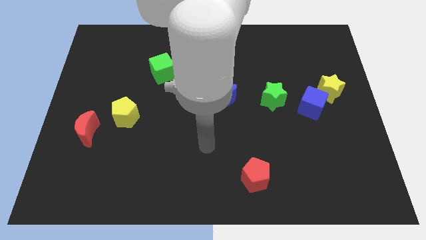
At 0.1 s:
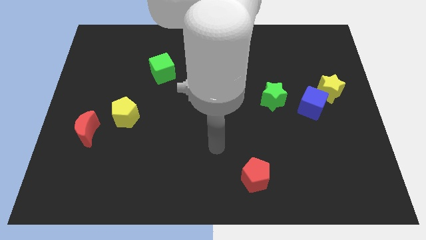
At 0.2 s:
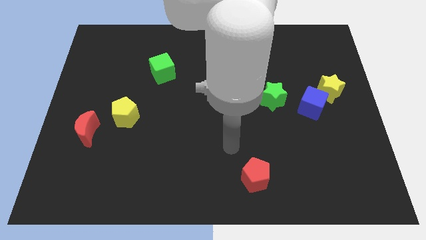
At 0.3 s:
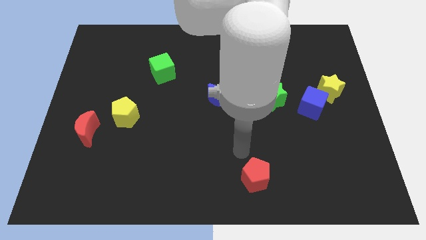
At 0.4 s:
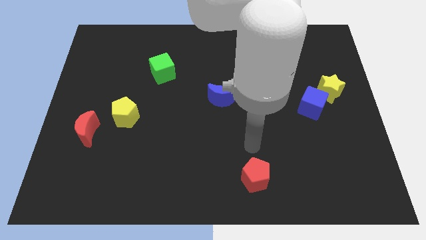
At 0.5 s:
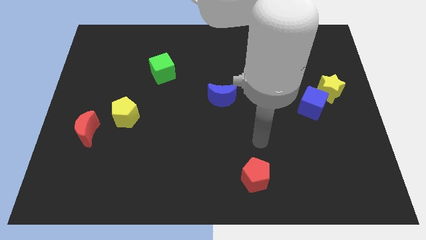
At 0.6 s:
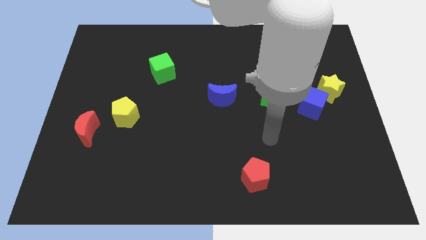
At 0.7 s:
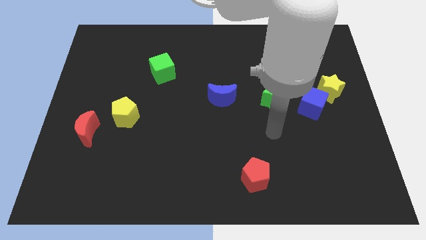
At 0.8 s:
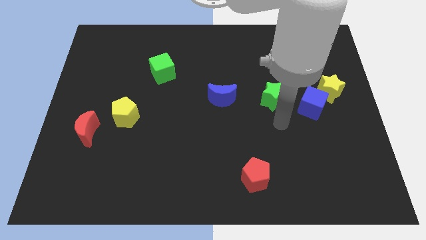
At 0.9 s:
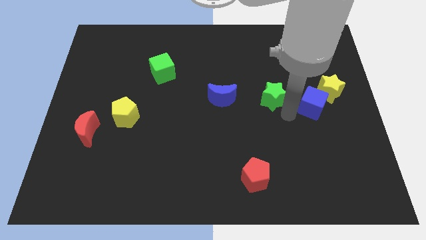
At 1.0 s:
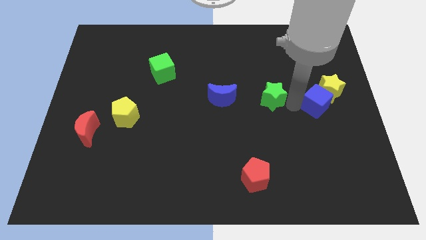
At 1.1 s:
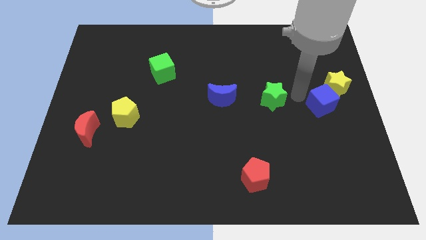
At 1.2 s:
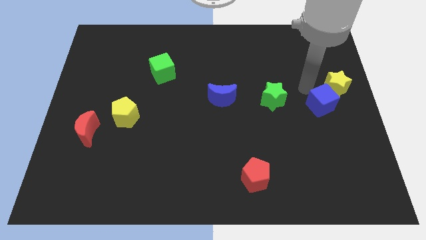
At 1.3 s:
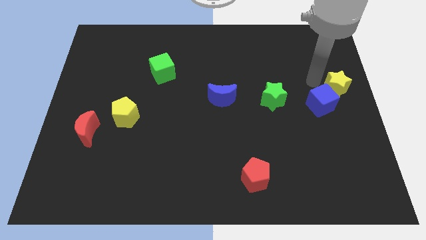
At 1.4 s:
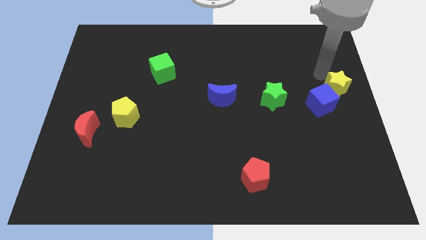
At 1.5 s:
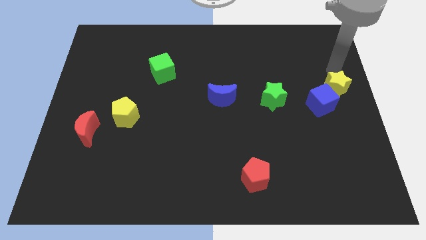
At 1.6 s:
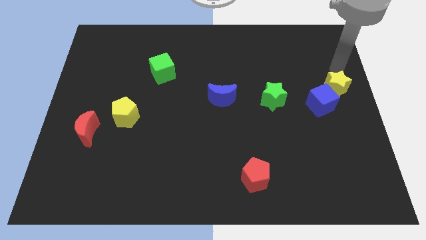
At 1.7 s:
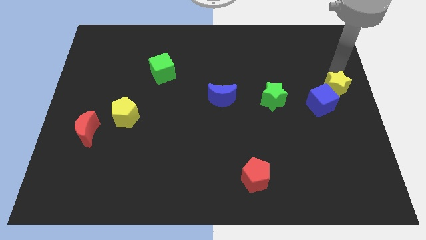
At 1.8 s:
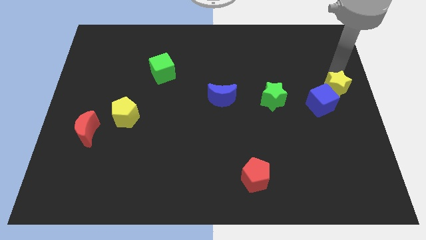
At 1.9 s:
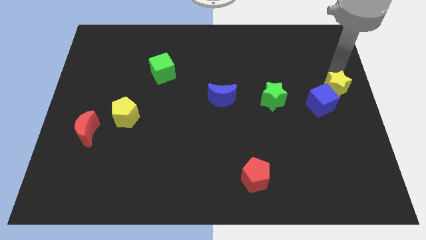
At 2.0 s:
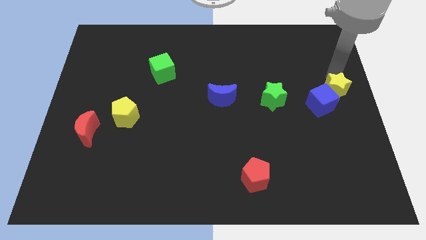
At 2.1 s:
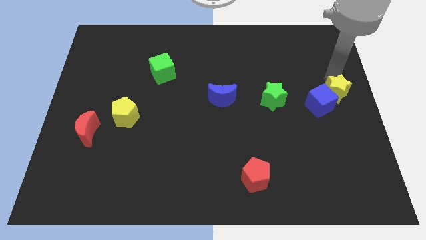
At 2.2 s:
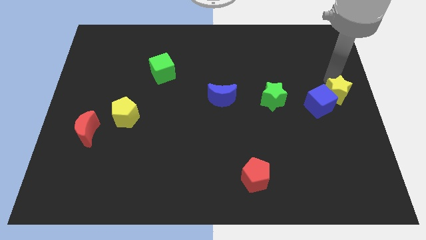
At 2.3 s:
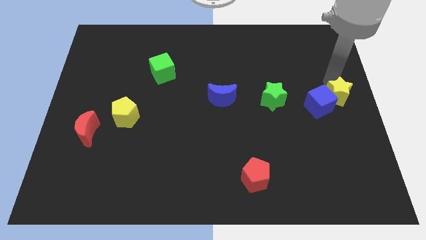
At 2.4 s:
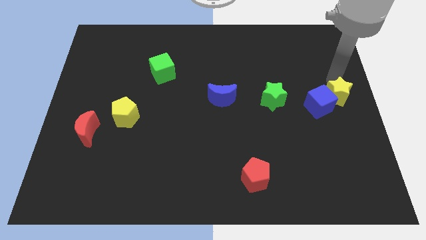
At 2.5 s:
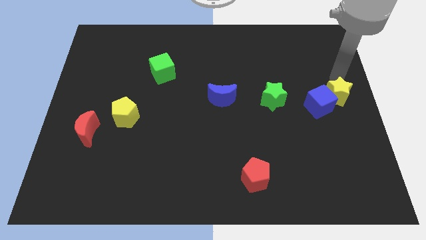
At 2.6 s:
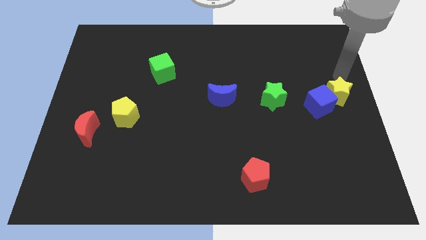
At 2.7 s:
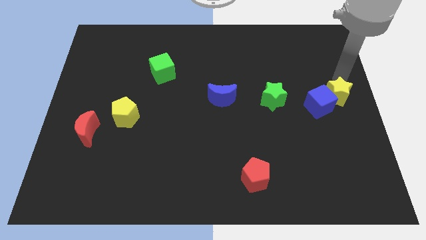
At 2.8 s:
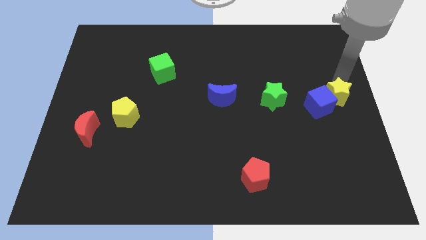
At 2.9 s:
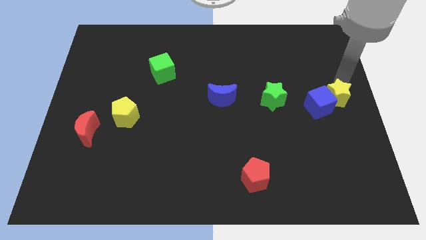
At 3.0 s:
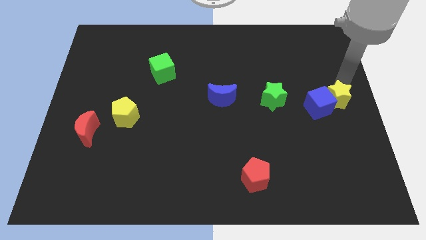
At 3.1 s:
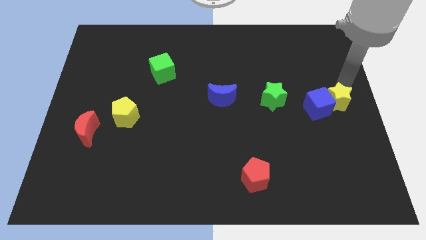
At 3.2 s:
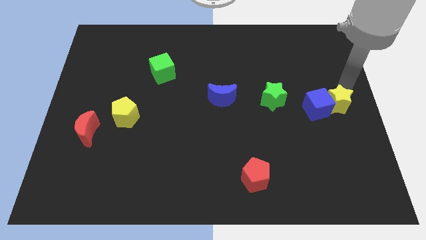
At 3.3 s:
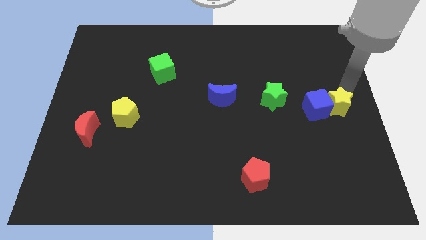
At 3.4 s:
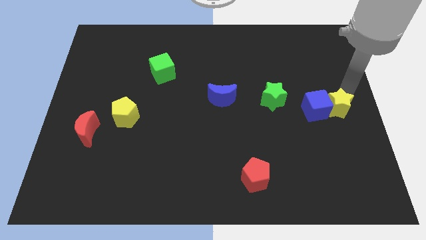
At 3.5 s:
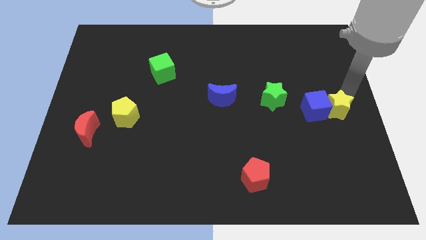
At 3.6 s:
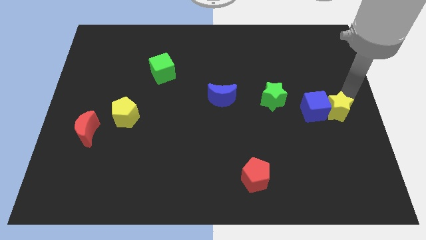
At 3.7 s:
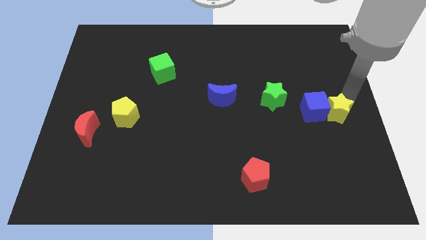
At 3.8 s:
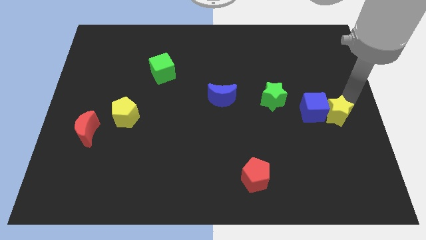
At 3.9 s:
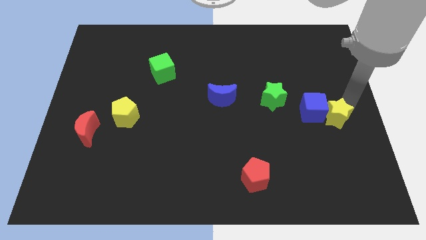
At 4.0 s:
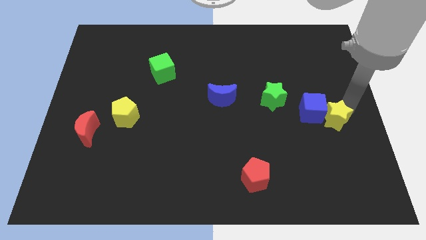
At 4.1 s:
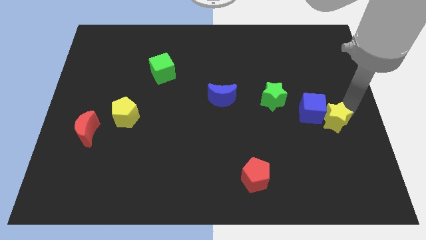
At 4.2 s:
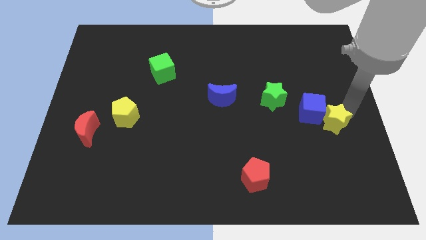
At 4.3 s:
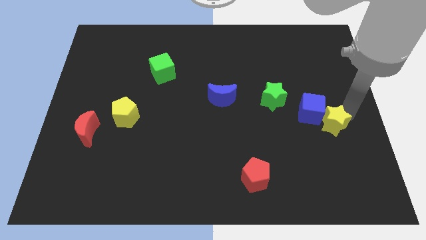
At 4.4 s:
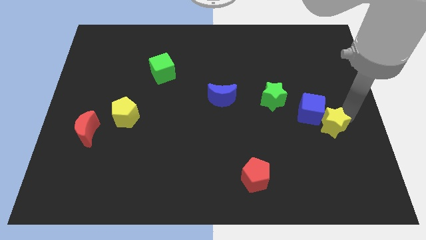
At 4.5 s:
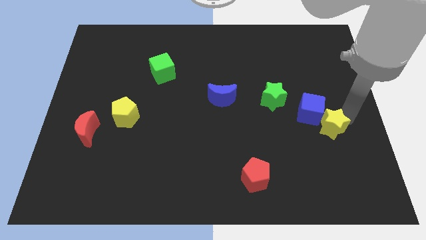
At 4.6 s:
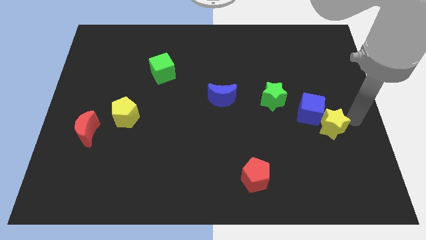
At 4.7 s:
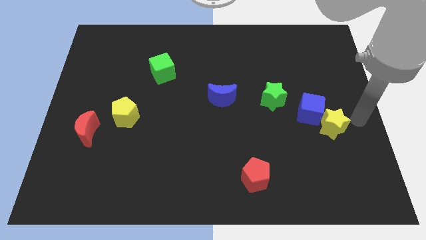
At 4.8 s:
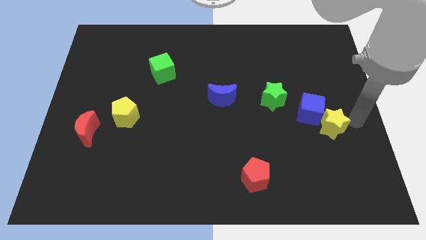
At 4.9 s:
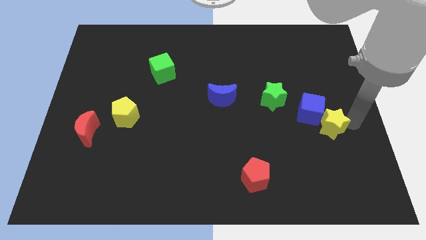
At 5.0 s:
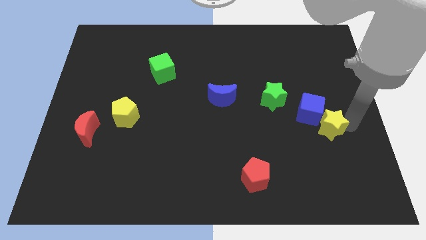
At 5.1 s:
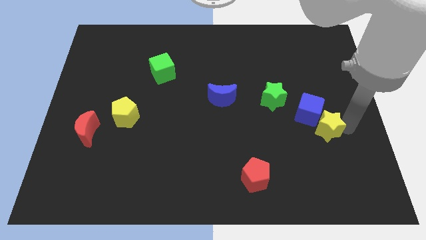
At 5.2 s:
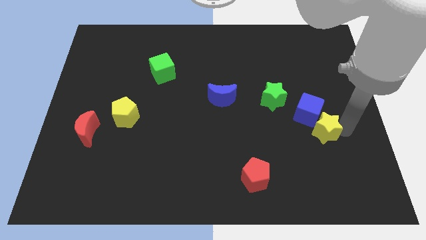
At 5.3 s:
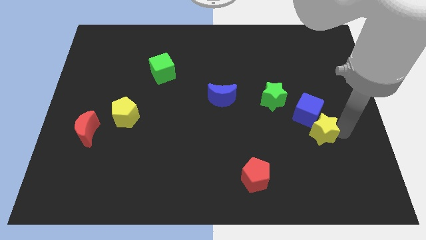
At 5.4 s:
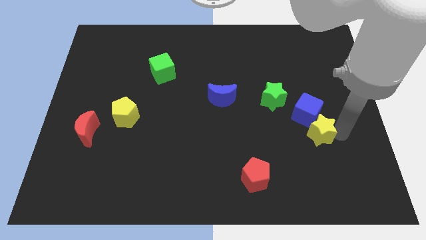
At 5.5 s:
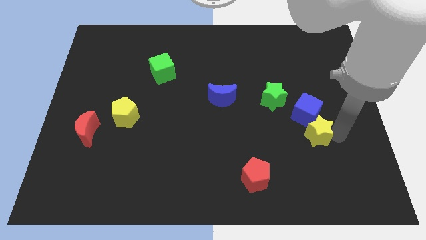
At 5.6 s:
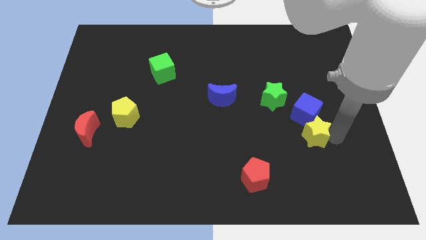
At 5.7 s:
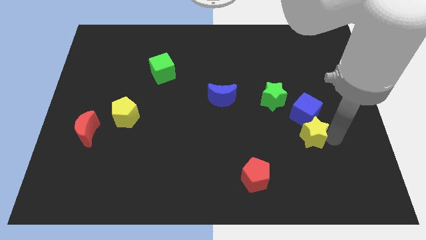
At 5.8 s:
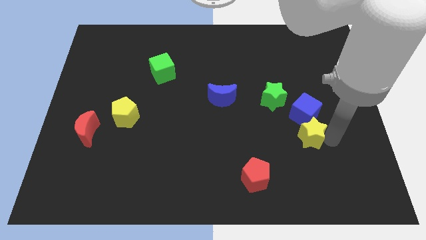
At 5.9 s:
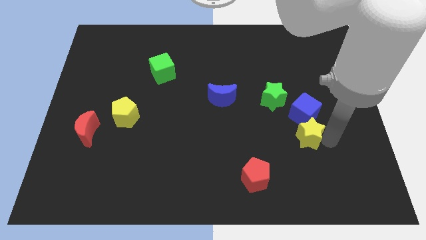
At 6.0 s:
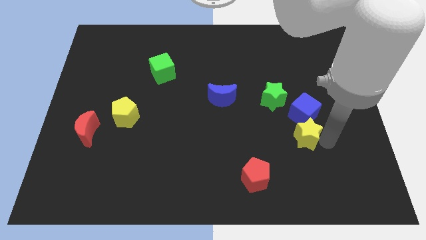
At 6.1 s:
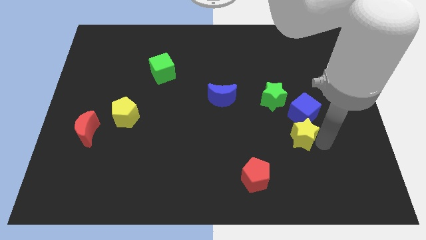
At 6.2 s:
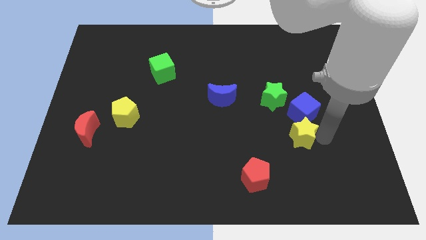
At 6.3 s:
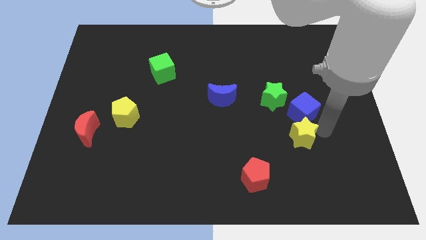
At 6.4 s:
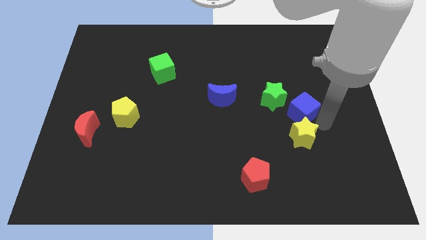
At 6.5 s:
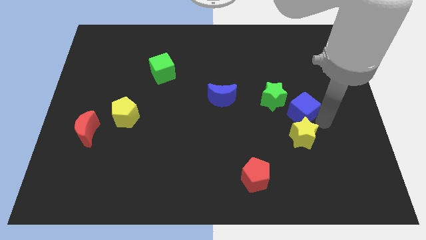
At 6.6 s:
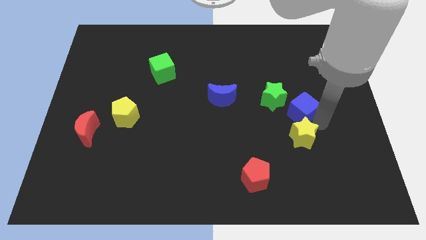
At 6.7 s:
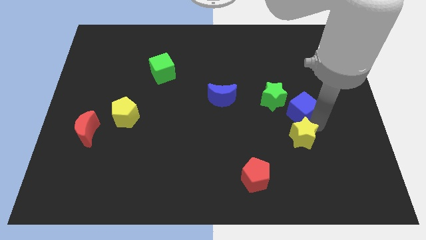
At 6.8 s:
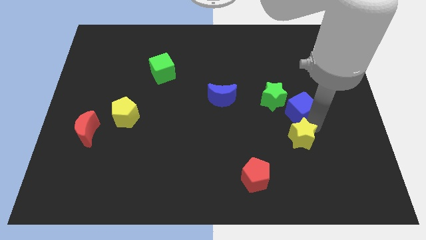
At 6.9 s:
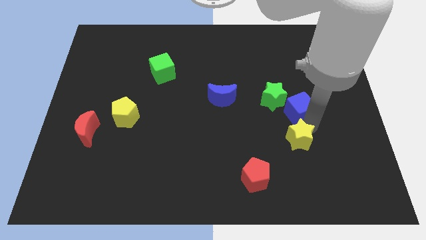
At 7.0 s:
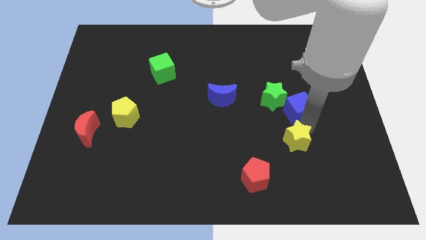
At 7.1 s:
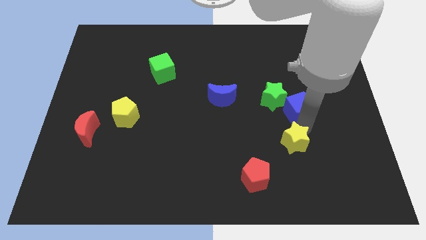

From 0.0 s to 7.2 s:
move the yellow star to the top right of the red pentagon
